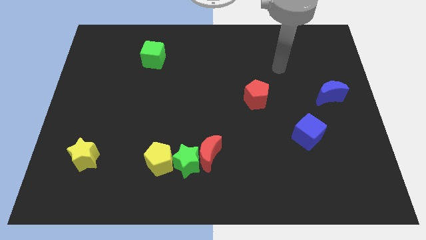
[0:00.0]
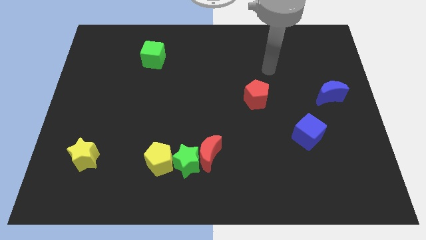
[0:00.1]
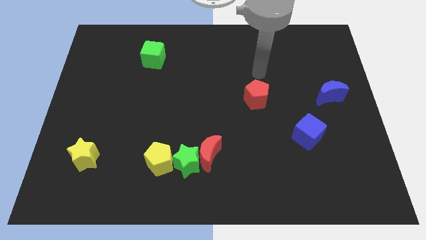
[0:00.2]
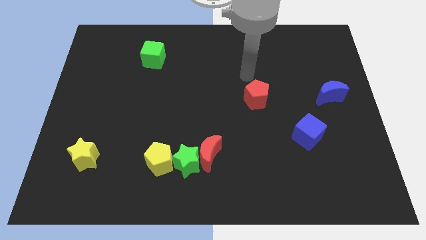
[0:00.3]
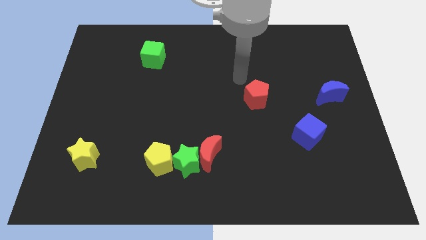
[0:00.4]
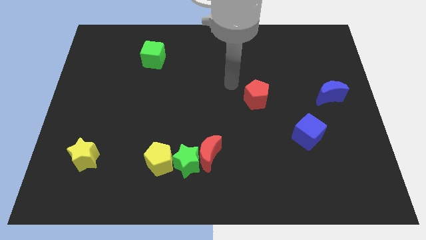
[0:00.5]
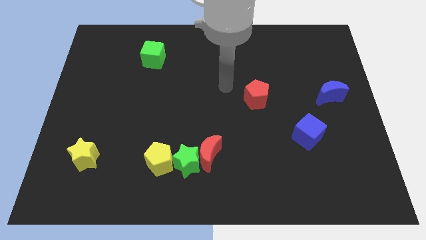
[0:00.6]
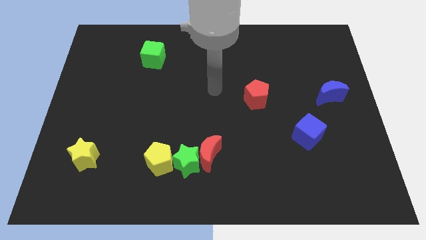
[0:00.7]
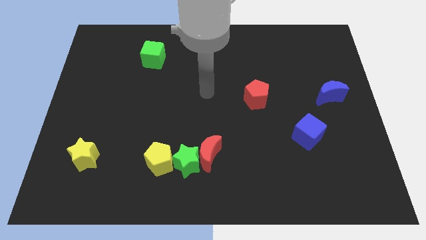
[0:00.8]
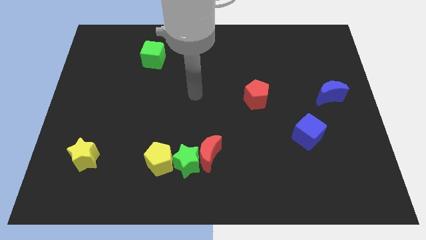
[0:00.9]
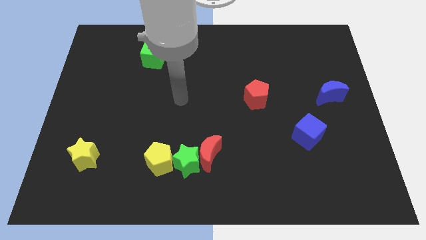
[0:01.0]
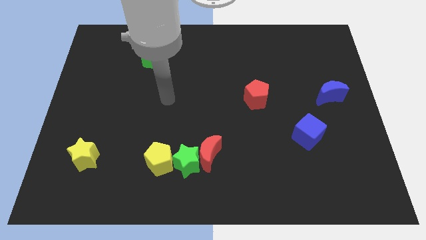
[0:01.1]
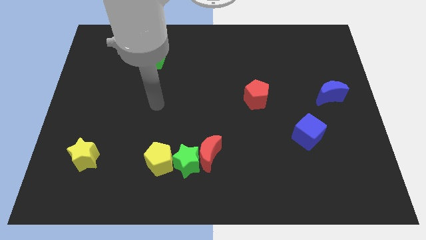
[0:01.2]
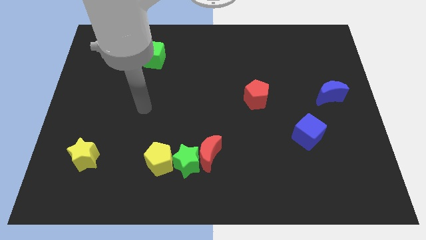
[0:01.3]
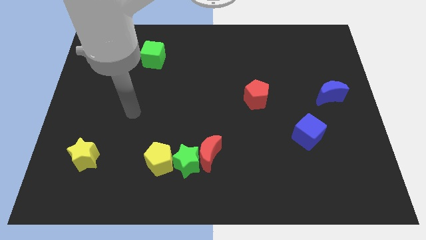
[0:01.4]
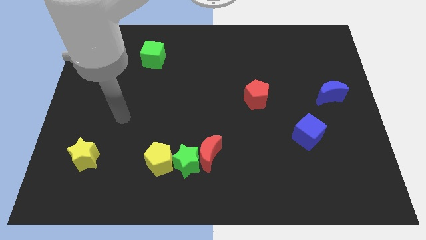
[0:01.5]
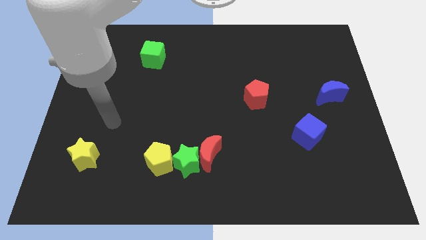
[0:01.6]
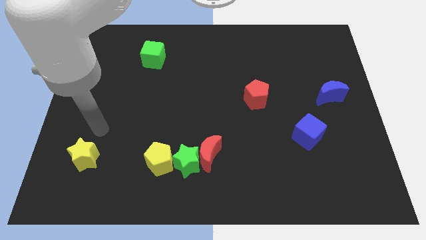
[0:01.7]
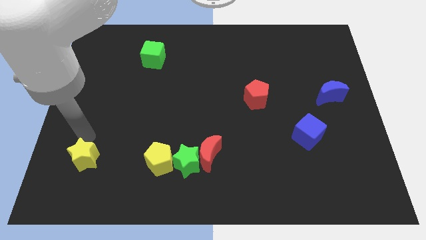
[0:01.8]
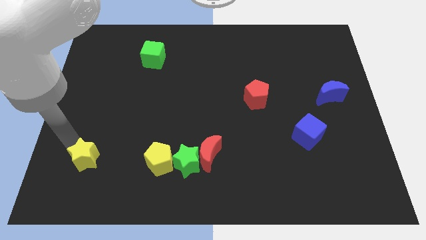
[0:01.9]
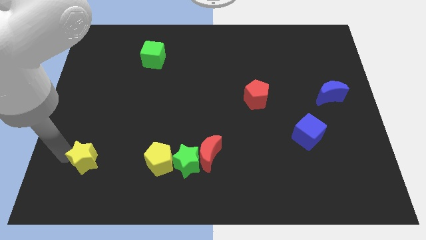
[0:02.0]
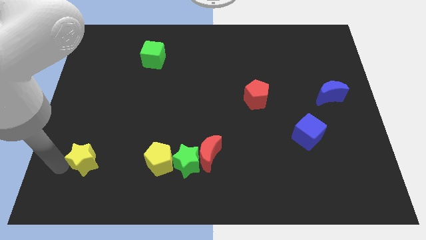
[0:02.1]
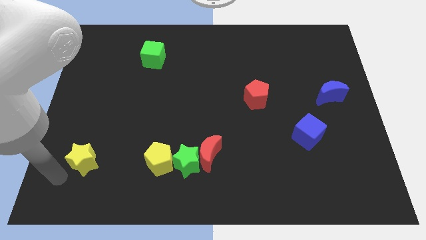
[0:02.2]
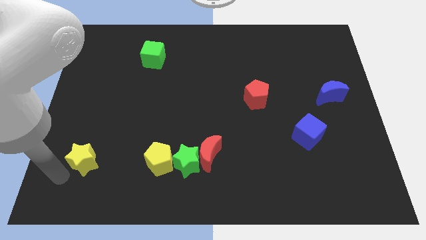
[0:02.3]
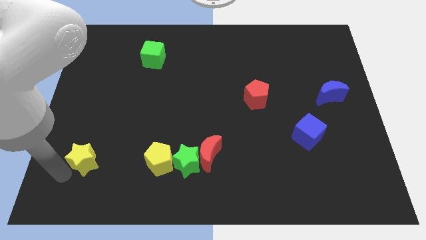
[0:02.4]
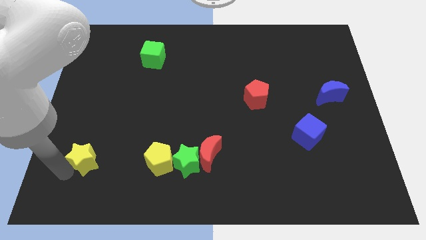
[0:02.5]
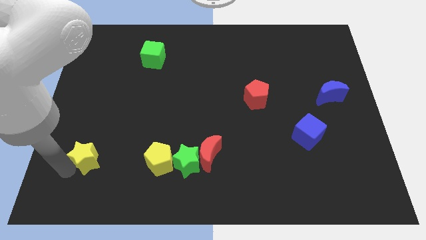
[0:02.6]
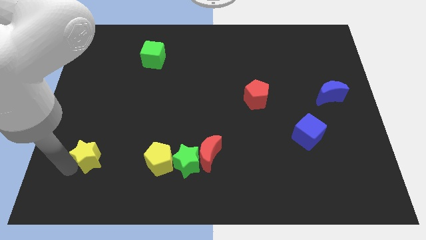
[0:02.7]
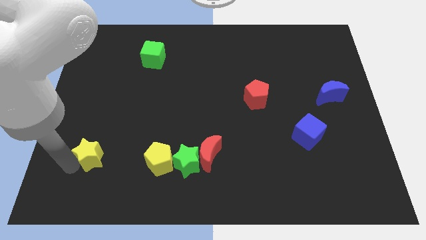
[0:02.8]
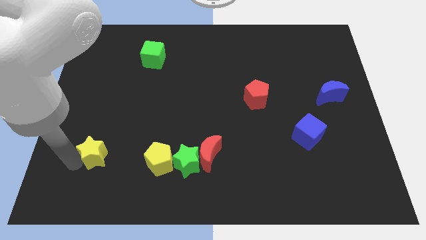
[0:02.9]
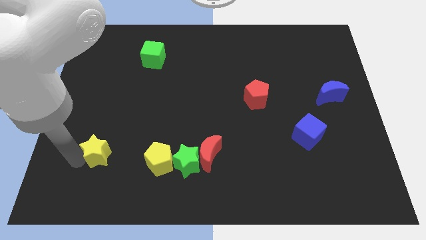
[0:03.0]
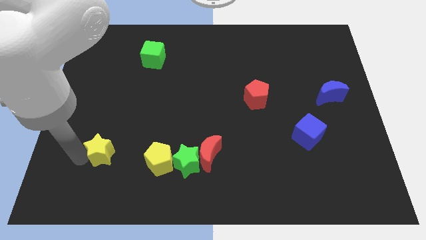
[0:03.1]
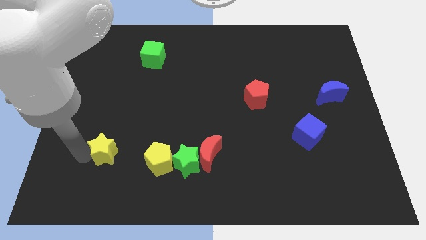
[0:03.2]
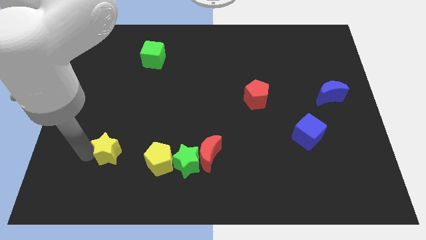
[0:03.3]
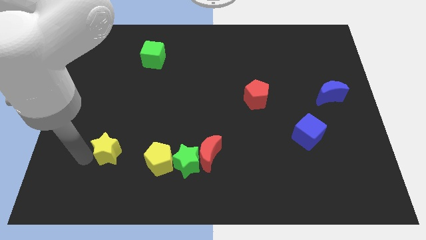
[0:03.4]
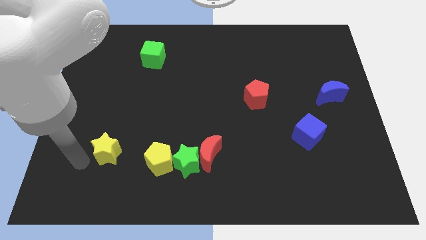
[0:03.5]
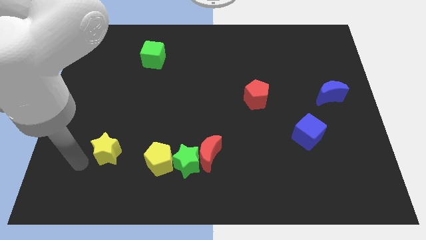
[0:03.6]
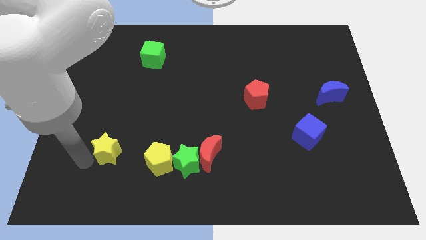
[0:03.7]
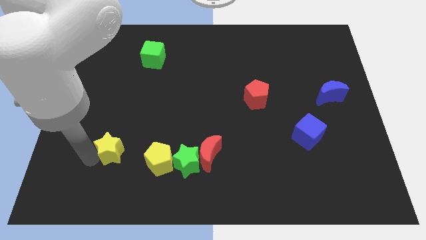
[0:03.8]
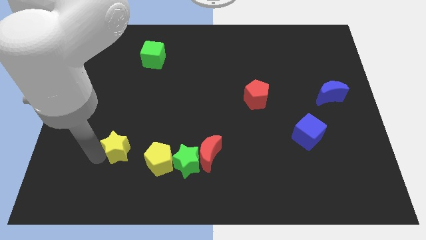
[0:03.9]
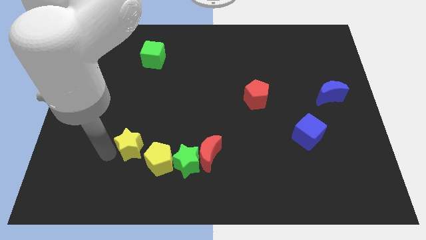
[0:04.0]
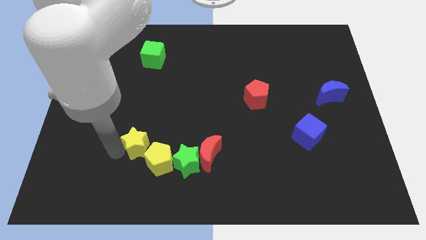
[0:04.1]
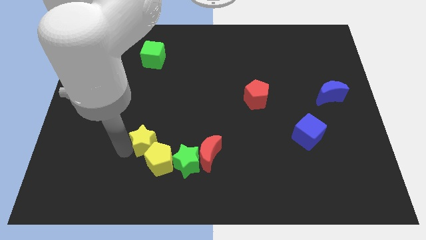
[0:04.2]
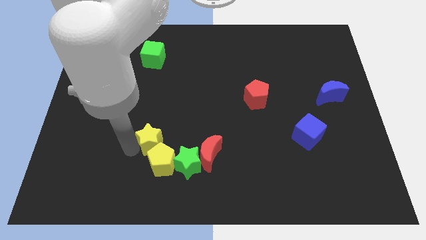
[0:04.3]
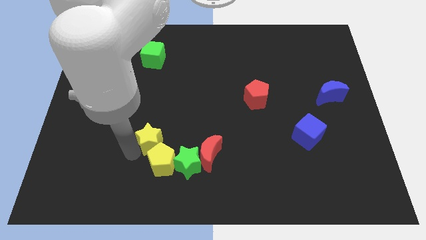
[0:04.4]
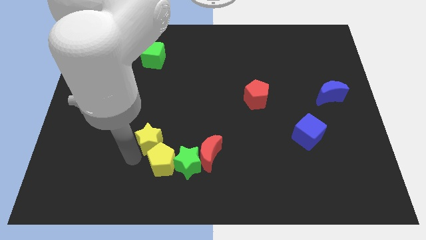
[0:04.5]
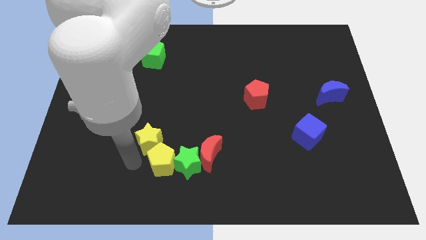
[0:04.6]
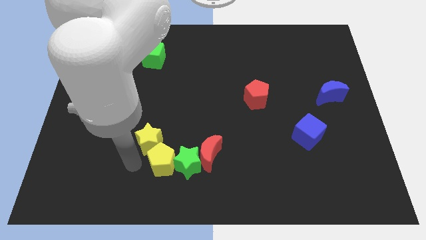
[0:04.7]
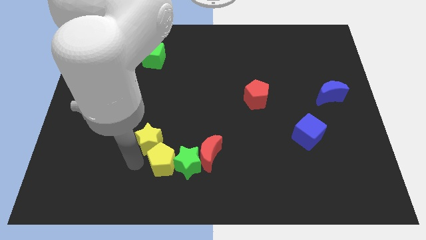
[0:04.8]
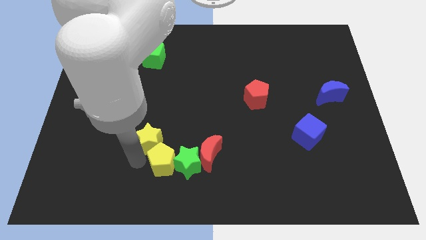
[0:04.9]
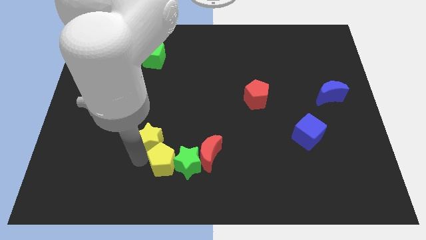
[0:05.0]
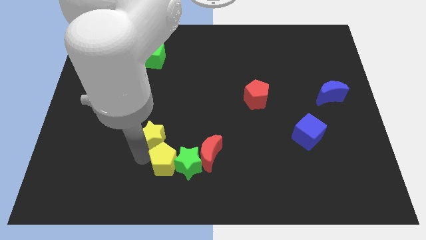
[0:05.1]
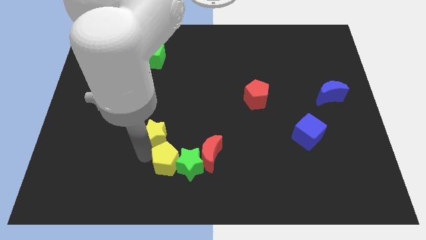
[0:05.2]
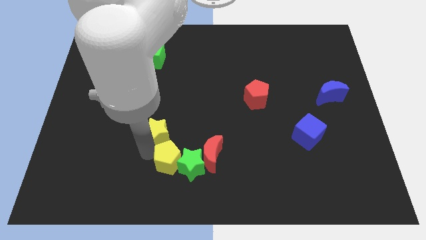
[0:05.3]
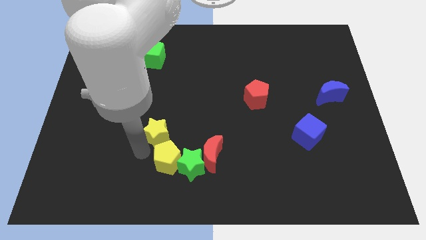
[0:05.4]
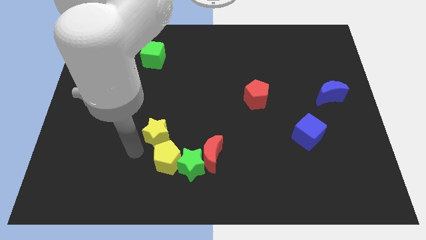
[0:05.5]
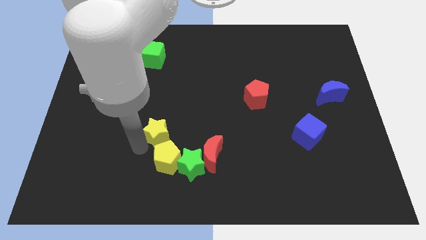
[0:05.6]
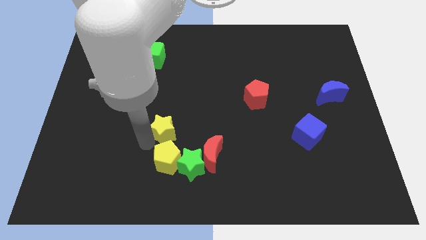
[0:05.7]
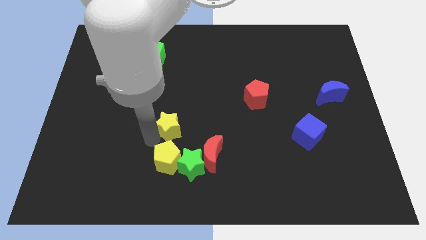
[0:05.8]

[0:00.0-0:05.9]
slide the yellow star to the middle of the board
